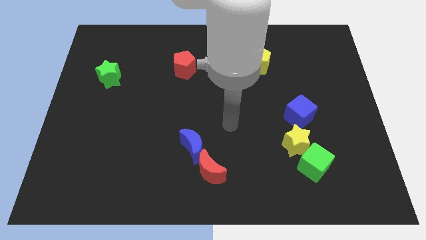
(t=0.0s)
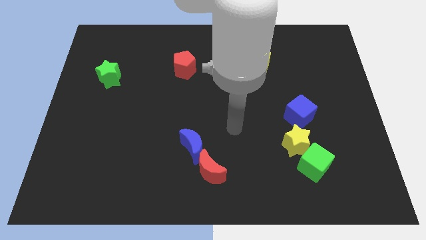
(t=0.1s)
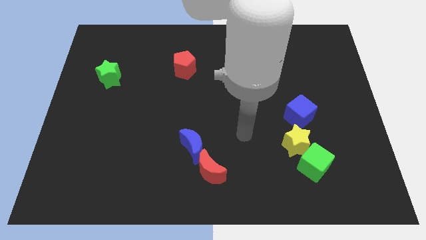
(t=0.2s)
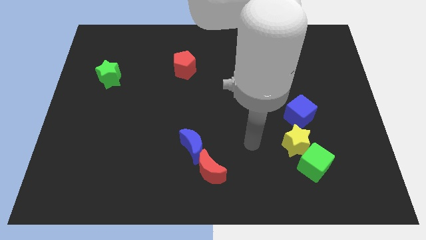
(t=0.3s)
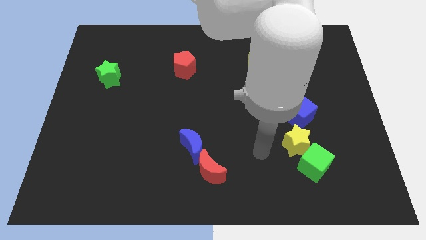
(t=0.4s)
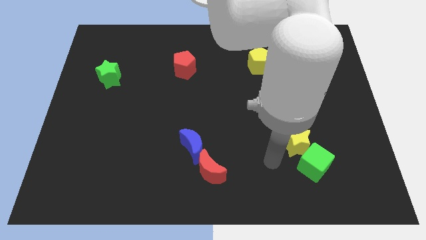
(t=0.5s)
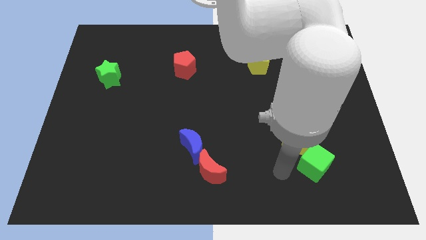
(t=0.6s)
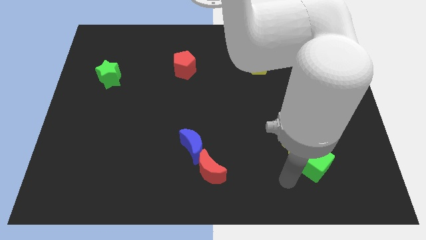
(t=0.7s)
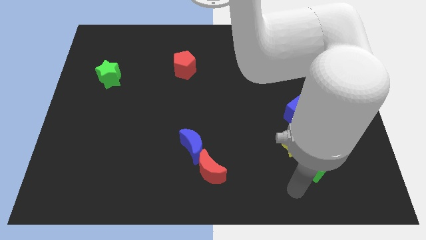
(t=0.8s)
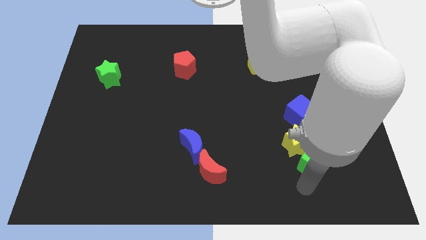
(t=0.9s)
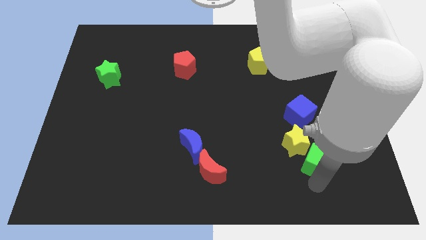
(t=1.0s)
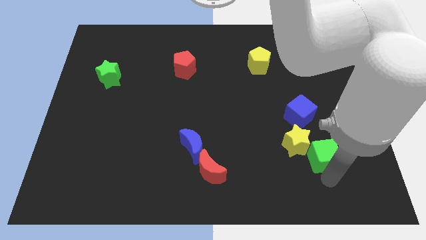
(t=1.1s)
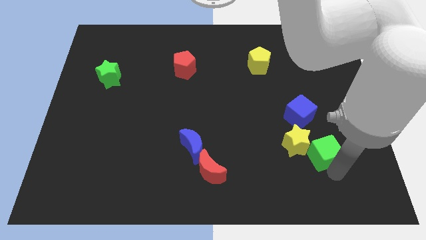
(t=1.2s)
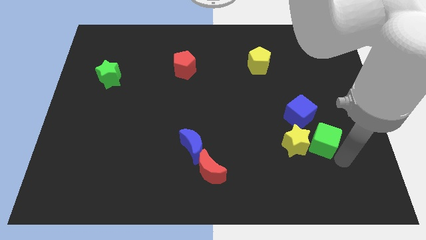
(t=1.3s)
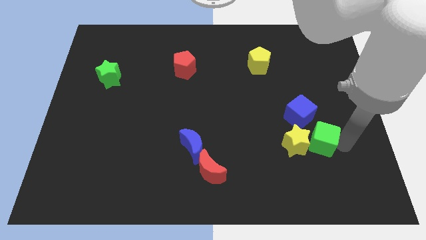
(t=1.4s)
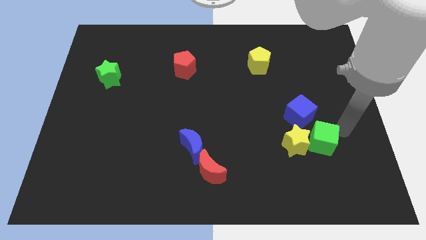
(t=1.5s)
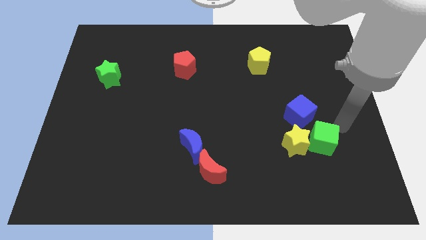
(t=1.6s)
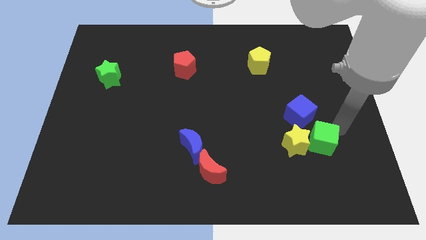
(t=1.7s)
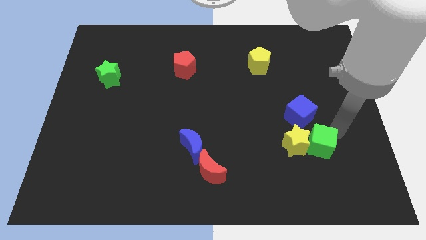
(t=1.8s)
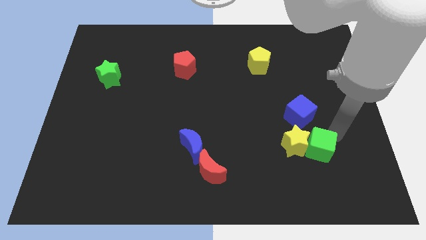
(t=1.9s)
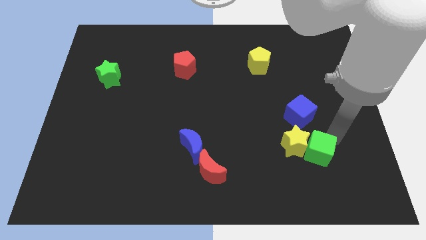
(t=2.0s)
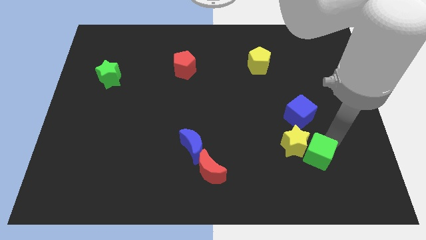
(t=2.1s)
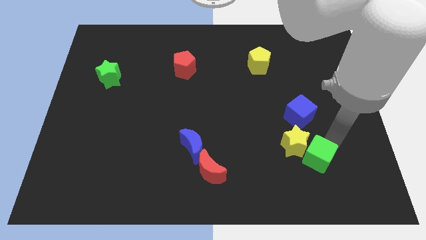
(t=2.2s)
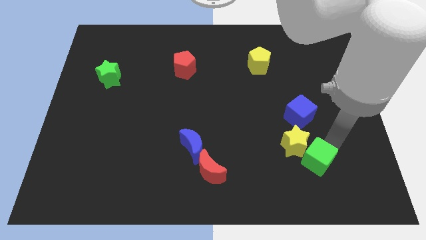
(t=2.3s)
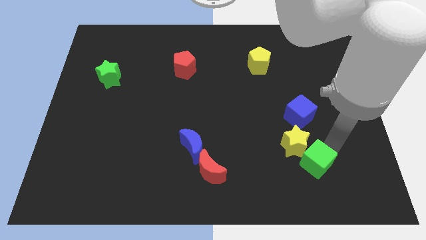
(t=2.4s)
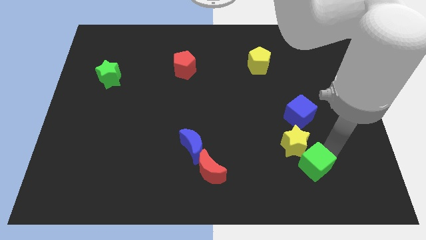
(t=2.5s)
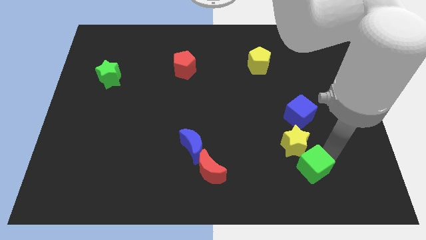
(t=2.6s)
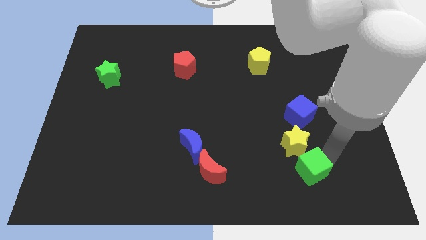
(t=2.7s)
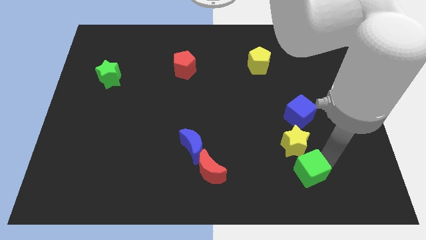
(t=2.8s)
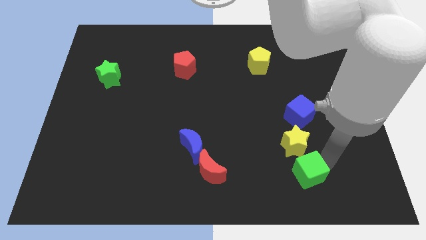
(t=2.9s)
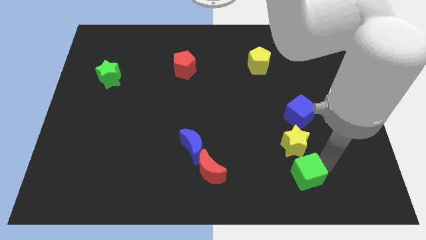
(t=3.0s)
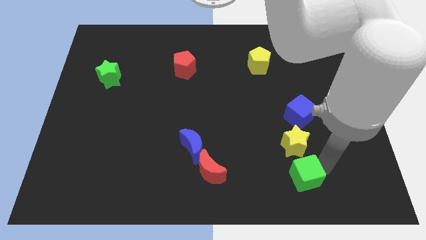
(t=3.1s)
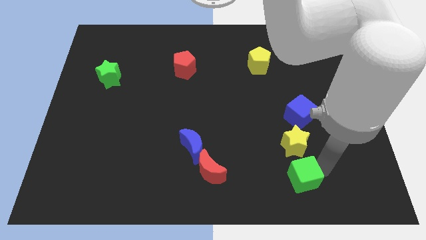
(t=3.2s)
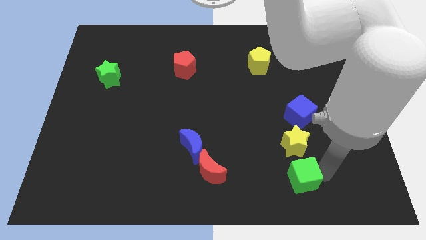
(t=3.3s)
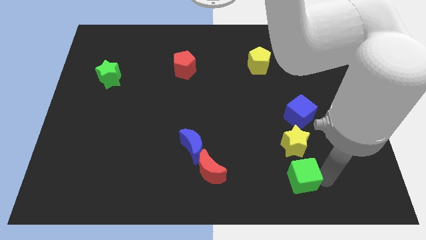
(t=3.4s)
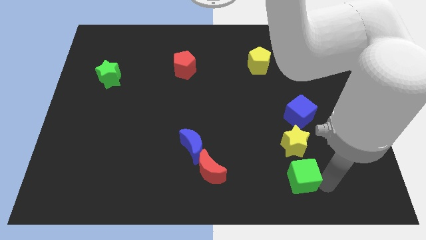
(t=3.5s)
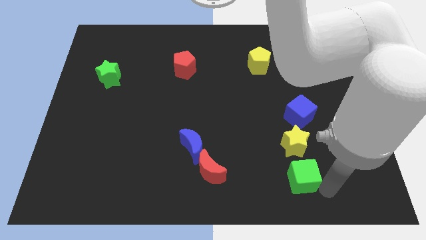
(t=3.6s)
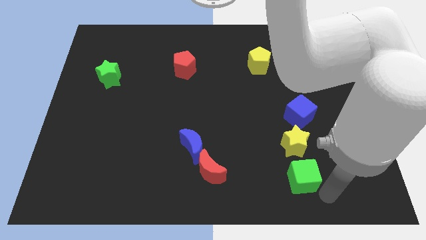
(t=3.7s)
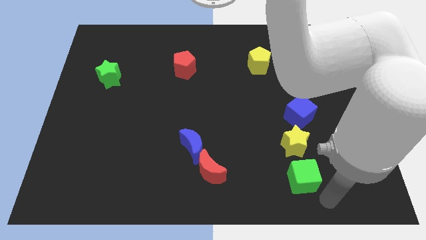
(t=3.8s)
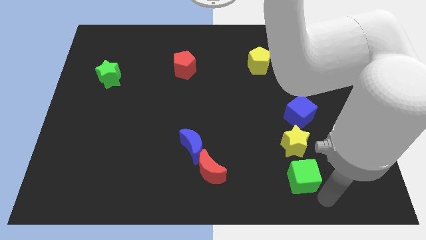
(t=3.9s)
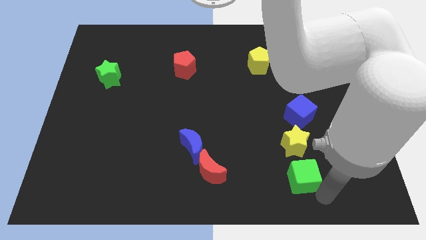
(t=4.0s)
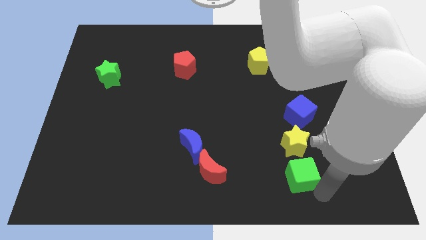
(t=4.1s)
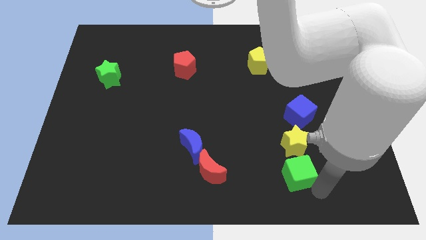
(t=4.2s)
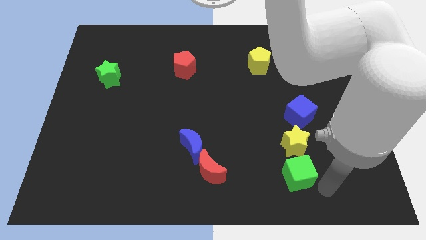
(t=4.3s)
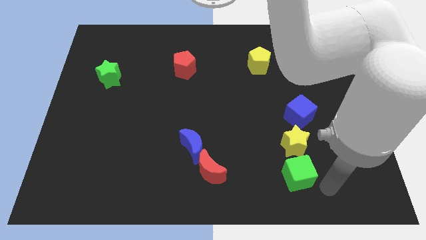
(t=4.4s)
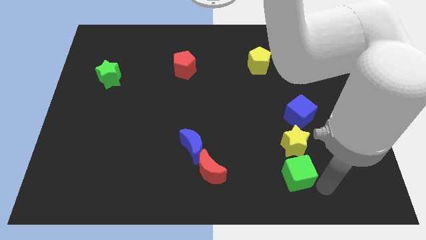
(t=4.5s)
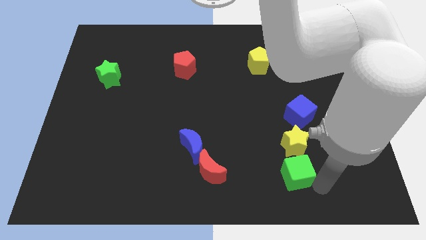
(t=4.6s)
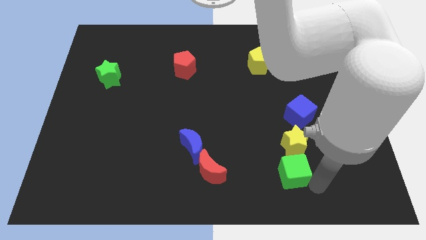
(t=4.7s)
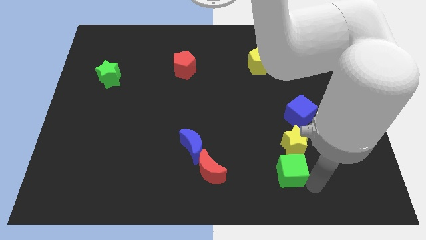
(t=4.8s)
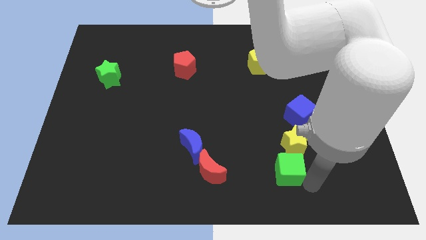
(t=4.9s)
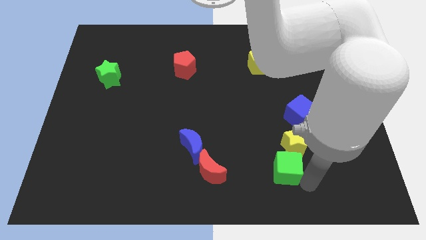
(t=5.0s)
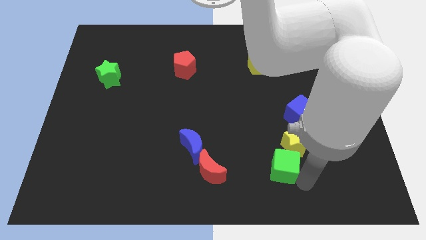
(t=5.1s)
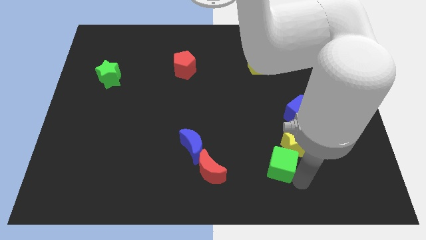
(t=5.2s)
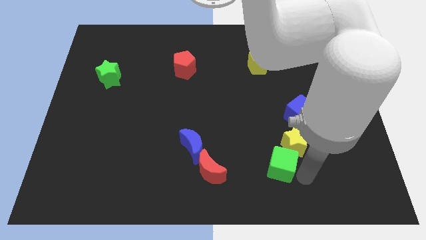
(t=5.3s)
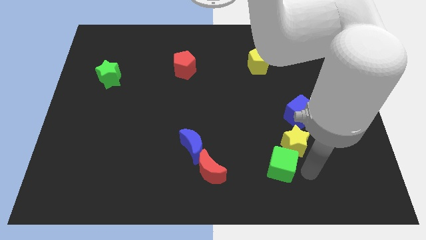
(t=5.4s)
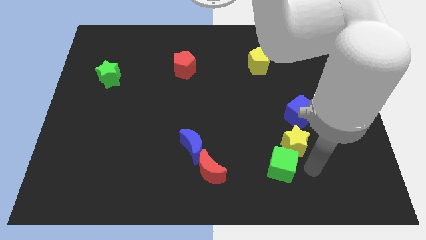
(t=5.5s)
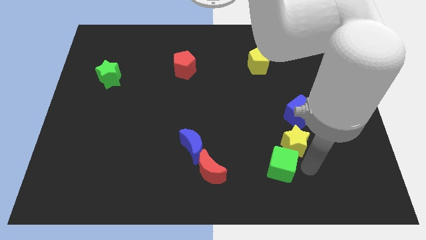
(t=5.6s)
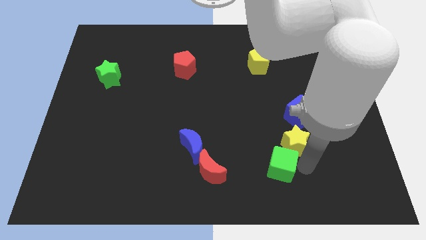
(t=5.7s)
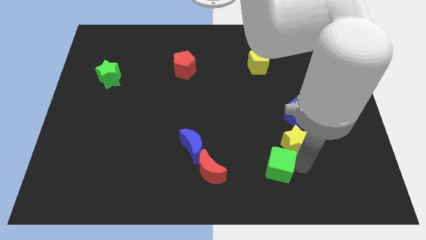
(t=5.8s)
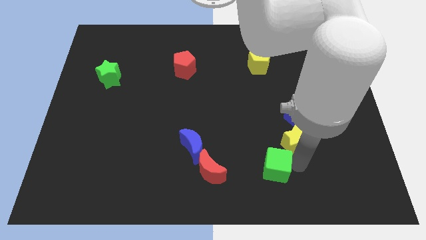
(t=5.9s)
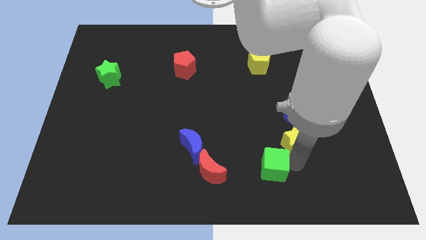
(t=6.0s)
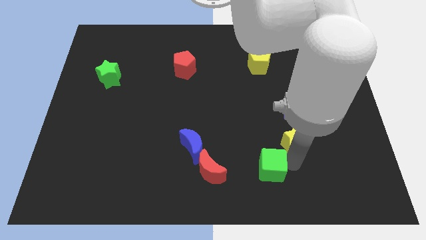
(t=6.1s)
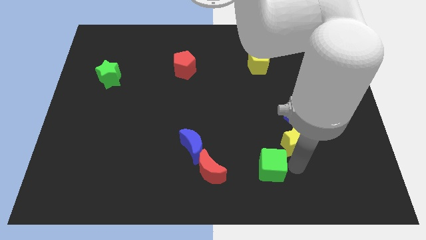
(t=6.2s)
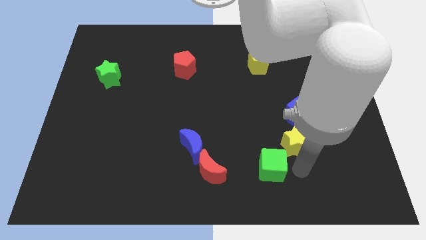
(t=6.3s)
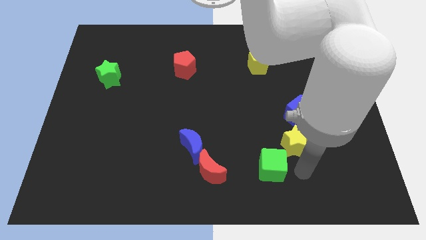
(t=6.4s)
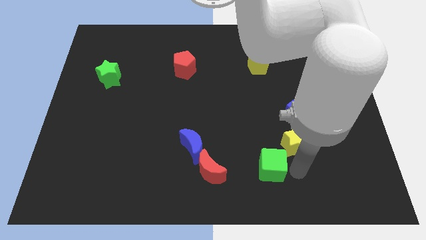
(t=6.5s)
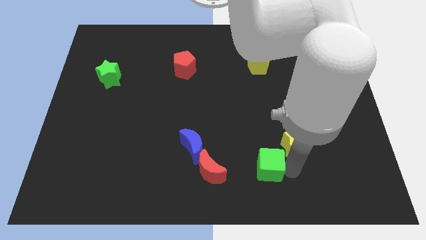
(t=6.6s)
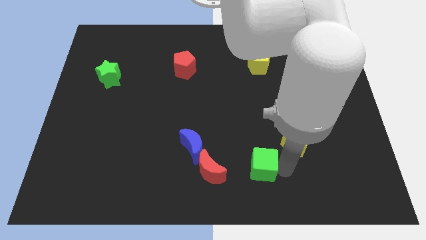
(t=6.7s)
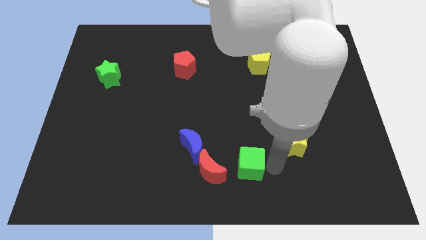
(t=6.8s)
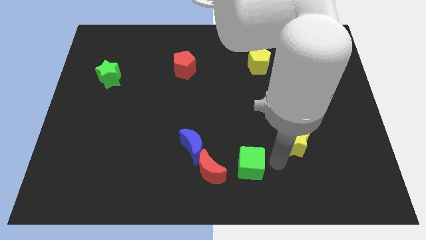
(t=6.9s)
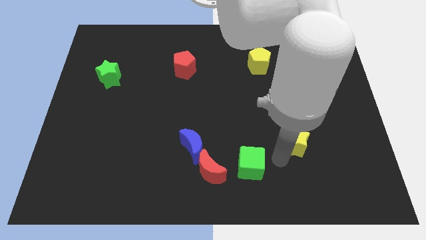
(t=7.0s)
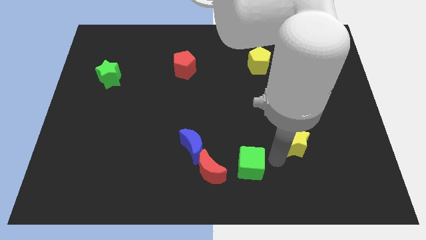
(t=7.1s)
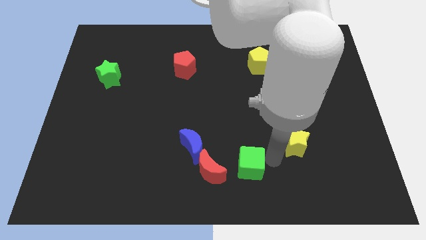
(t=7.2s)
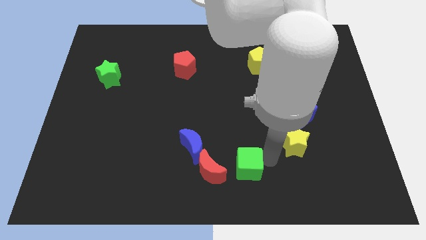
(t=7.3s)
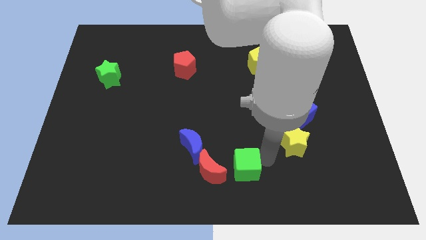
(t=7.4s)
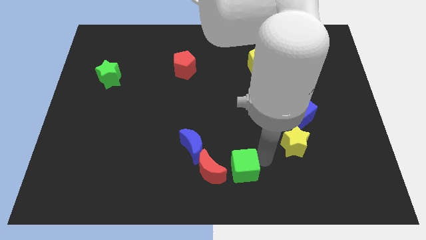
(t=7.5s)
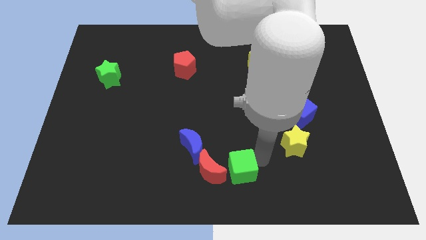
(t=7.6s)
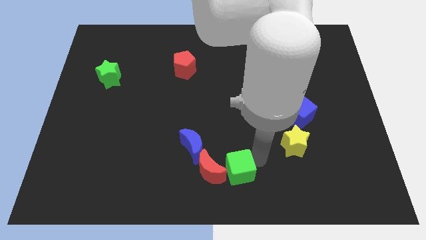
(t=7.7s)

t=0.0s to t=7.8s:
slide the green cube next to the red moon
